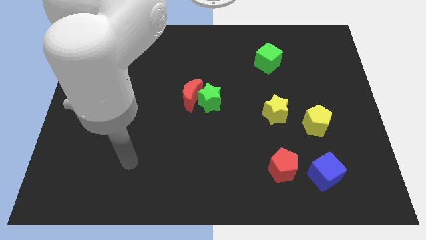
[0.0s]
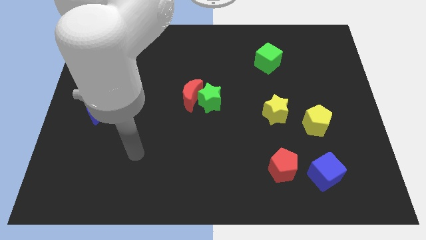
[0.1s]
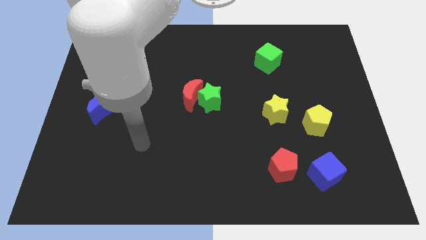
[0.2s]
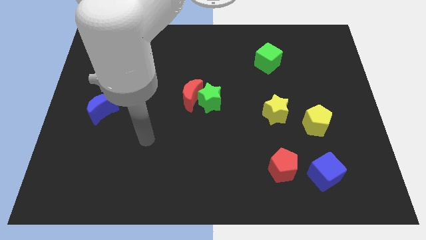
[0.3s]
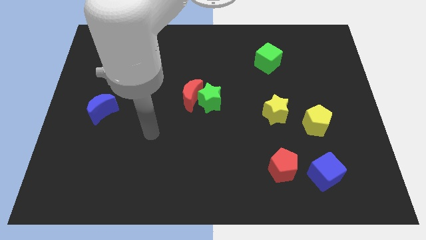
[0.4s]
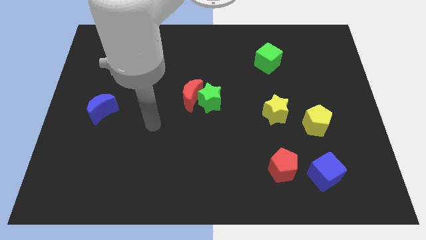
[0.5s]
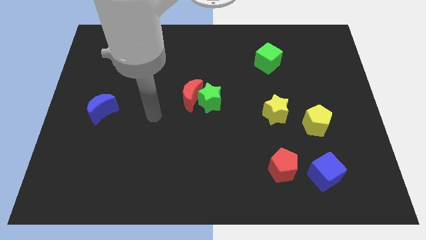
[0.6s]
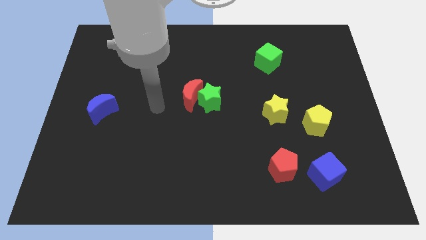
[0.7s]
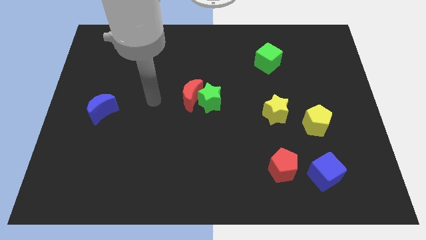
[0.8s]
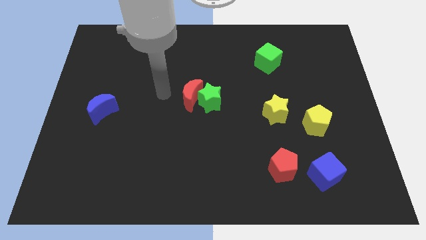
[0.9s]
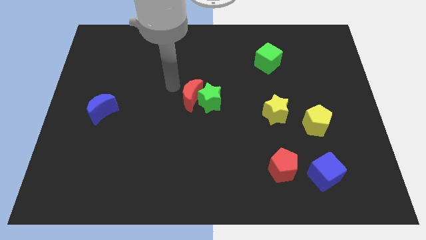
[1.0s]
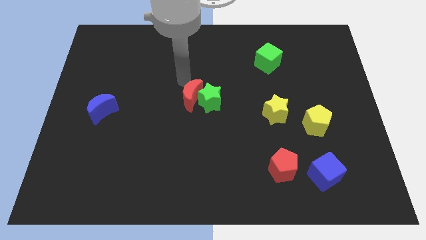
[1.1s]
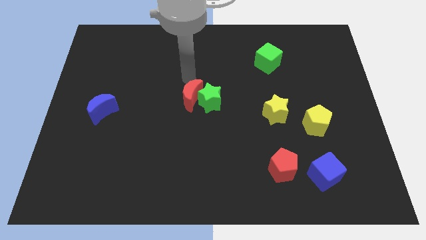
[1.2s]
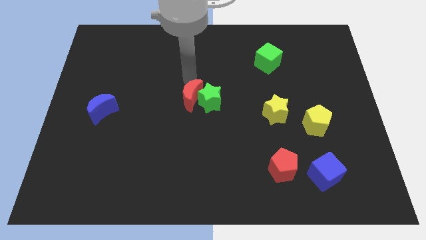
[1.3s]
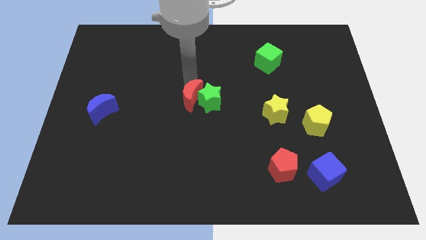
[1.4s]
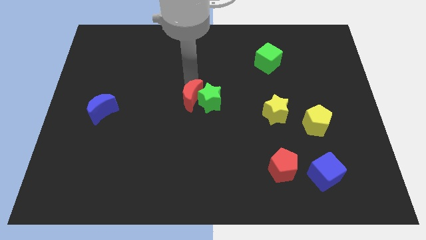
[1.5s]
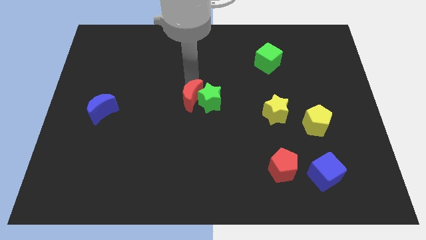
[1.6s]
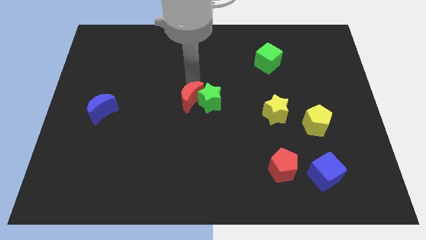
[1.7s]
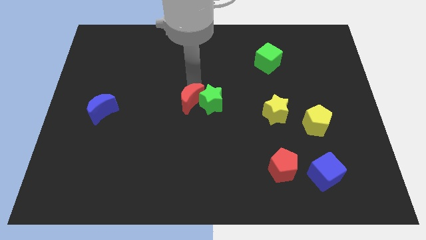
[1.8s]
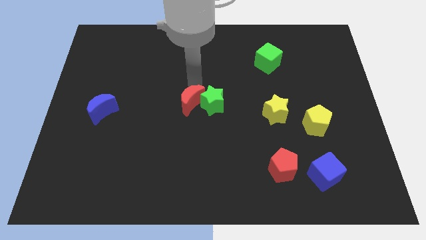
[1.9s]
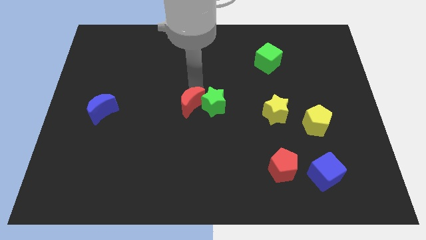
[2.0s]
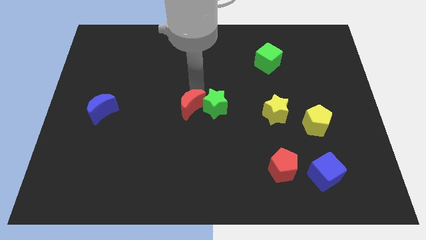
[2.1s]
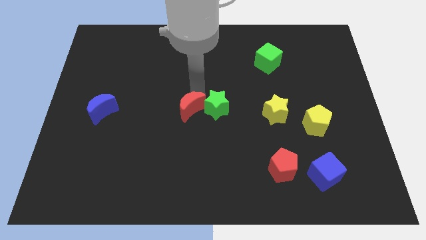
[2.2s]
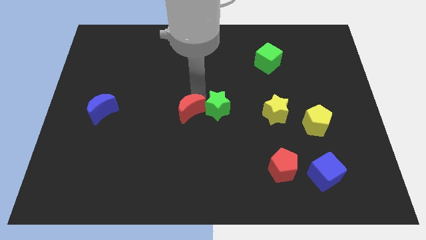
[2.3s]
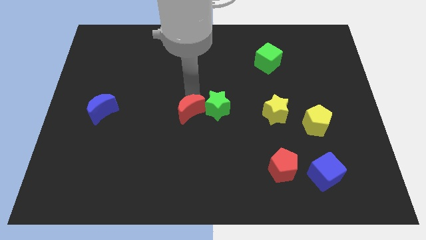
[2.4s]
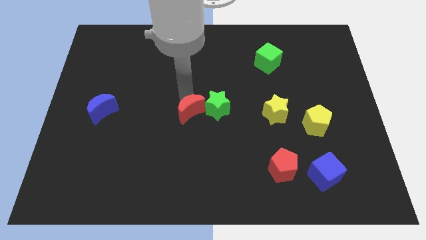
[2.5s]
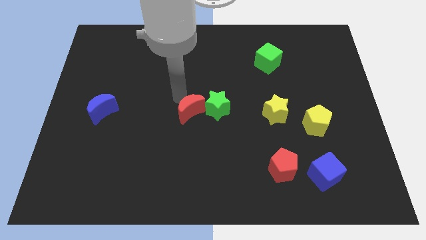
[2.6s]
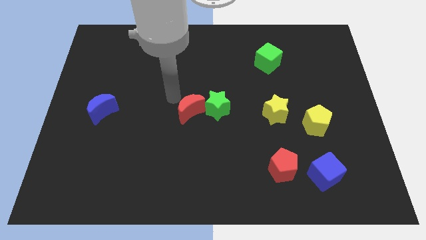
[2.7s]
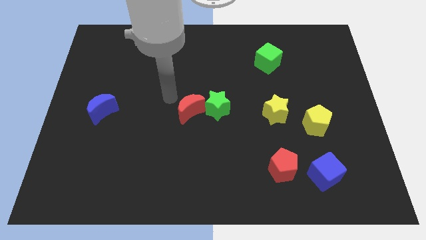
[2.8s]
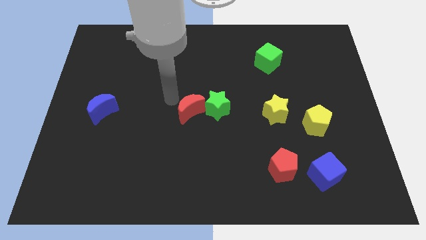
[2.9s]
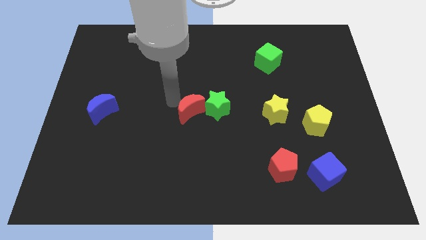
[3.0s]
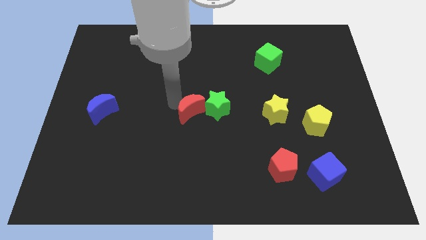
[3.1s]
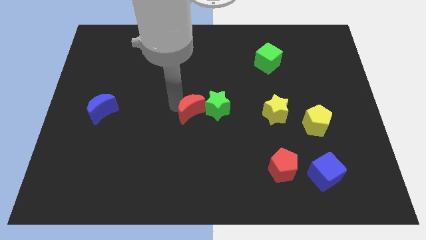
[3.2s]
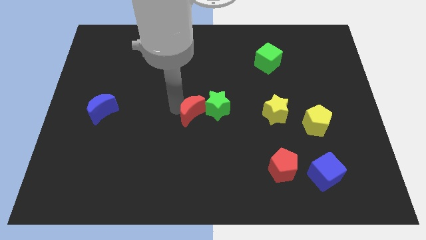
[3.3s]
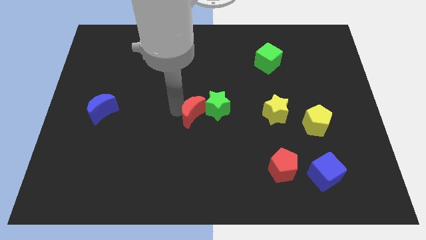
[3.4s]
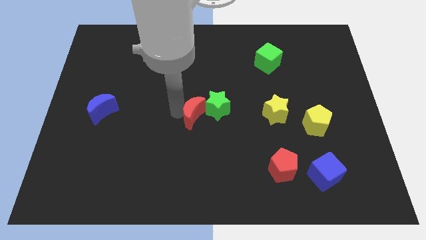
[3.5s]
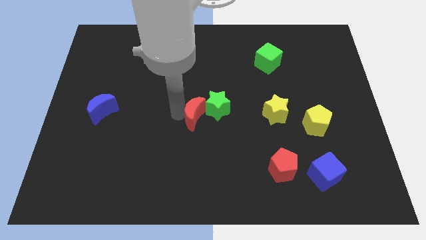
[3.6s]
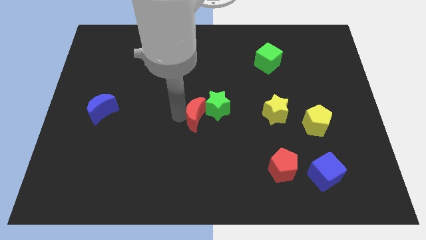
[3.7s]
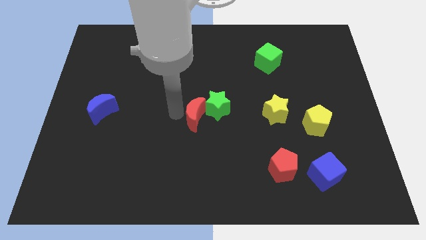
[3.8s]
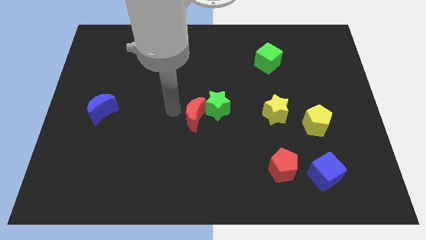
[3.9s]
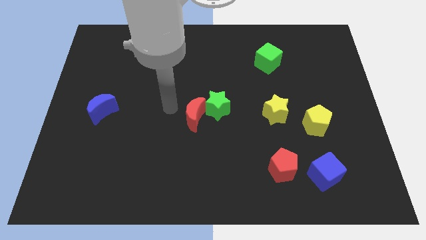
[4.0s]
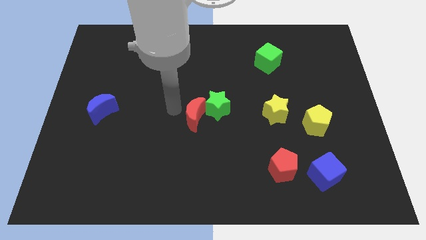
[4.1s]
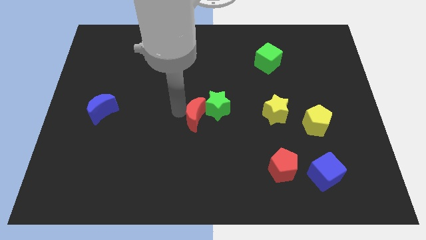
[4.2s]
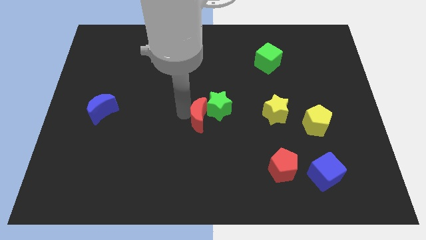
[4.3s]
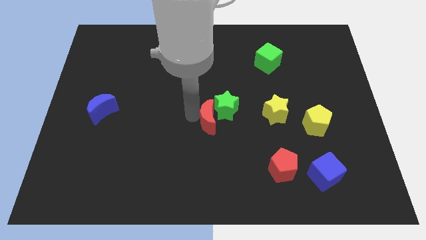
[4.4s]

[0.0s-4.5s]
slightly push the red moon down and right diagonally

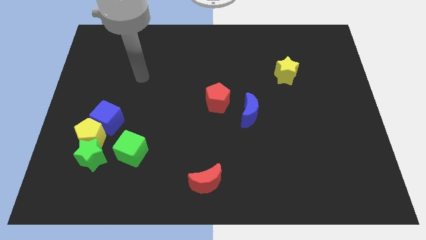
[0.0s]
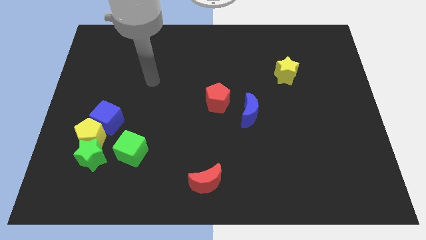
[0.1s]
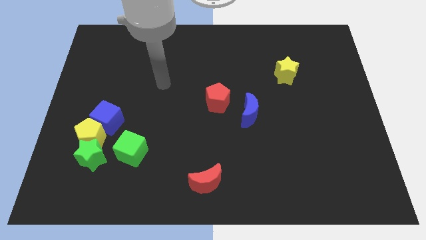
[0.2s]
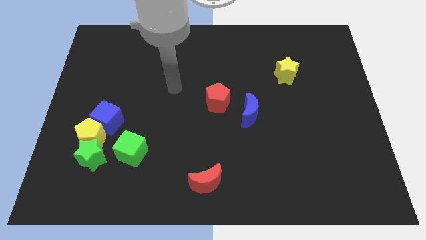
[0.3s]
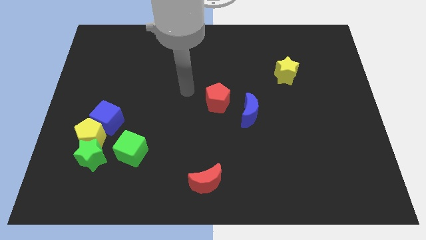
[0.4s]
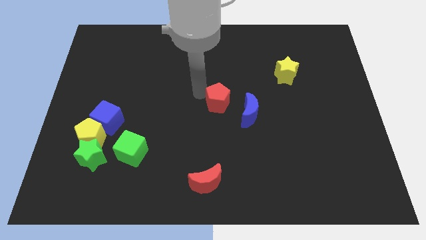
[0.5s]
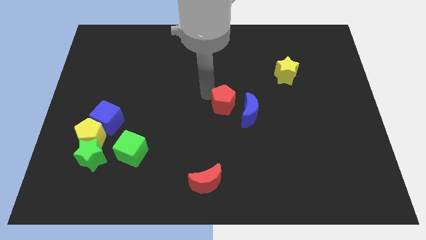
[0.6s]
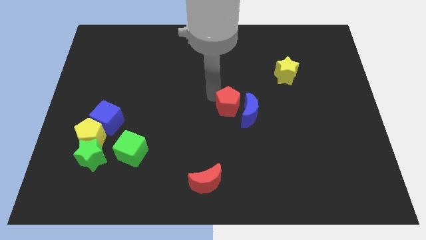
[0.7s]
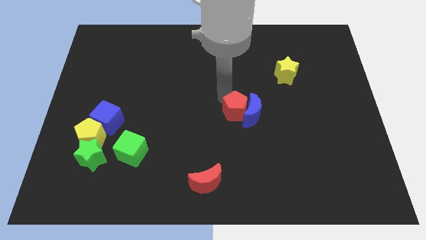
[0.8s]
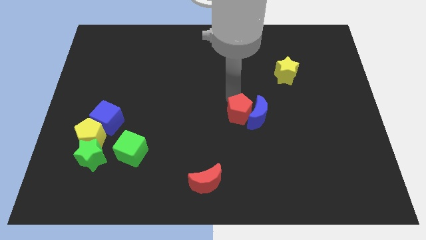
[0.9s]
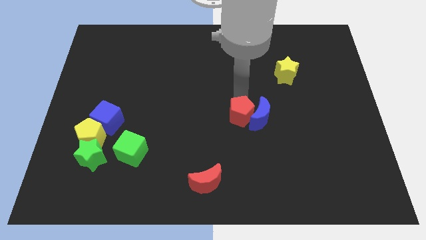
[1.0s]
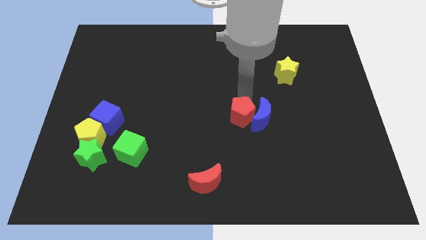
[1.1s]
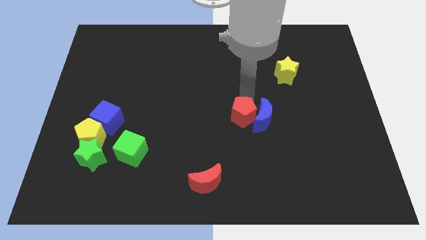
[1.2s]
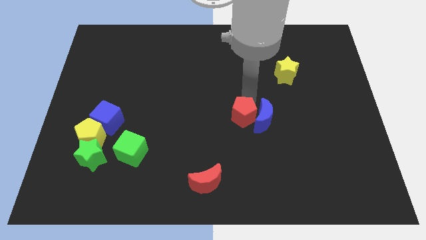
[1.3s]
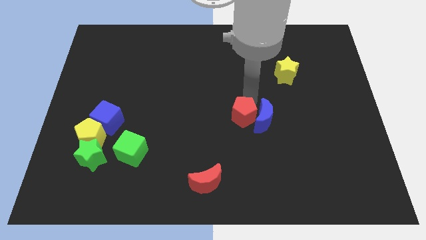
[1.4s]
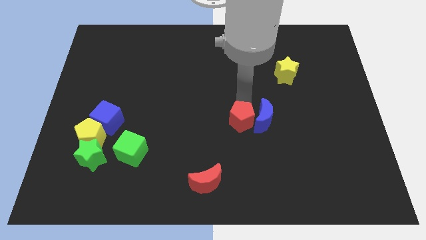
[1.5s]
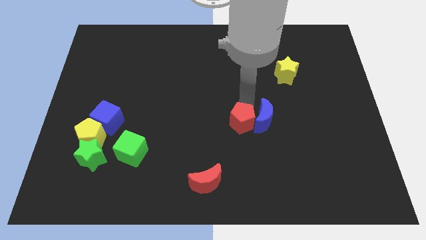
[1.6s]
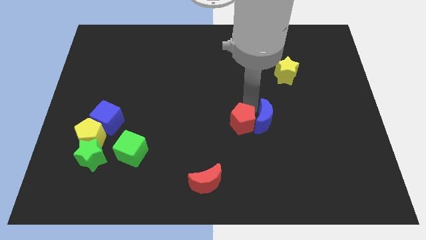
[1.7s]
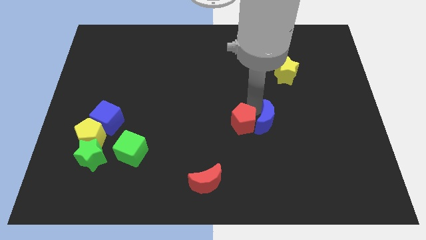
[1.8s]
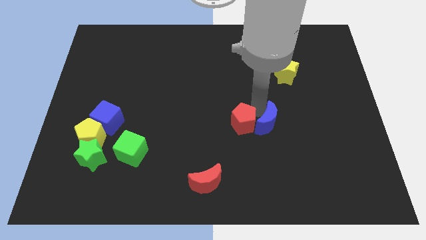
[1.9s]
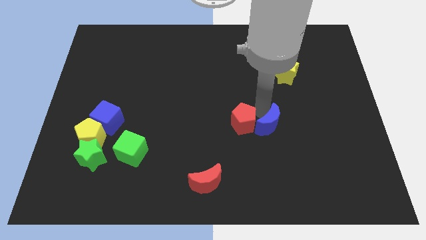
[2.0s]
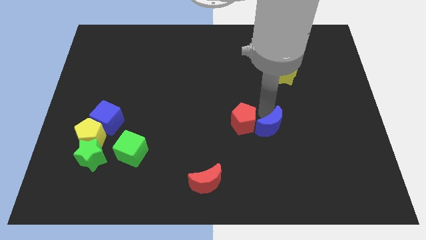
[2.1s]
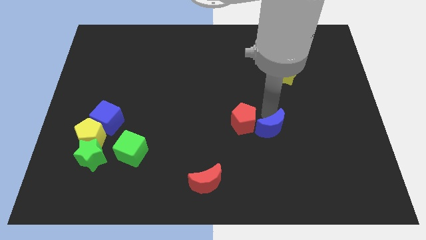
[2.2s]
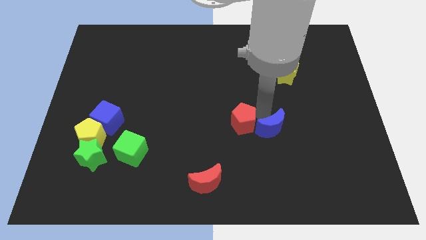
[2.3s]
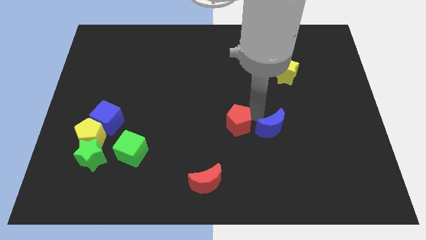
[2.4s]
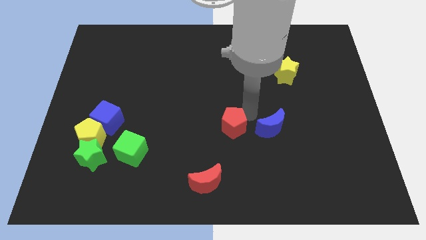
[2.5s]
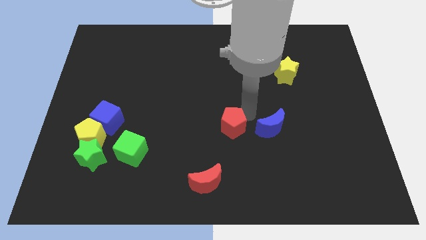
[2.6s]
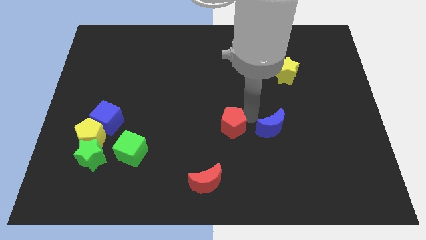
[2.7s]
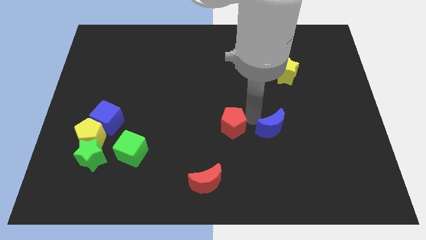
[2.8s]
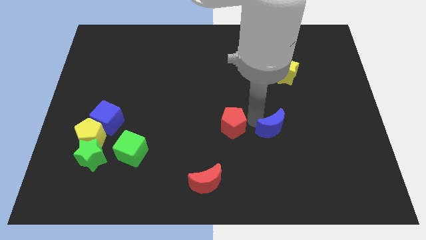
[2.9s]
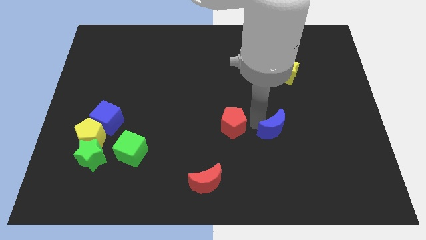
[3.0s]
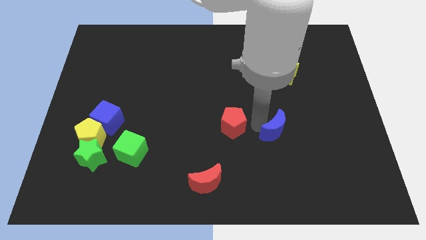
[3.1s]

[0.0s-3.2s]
slightly push the blue moon down and right
